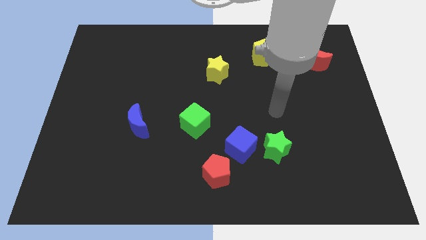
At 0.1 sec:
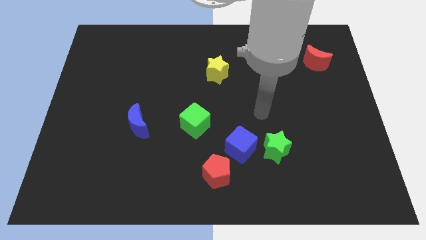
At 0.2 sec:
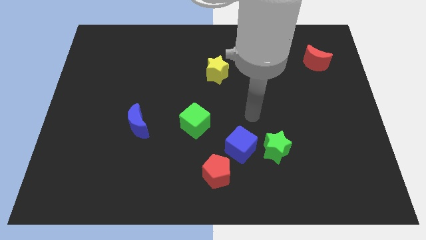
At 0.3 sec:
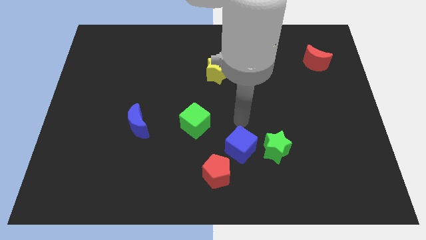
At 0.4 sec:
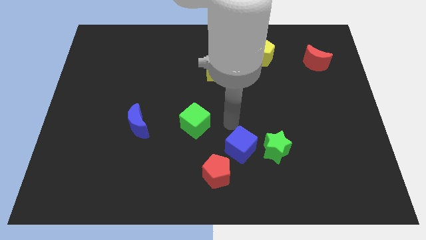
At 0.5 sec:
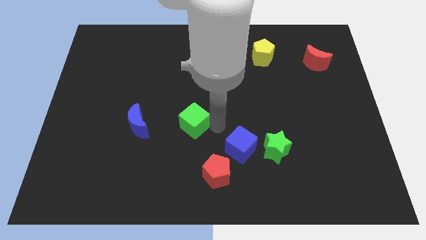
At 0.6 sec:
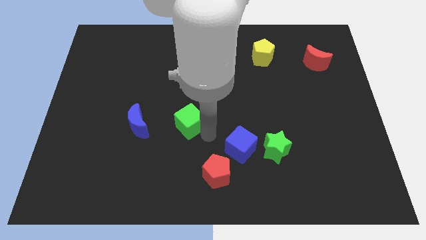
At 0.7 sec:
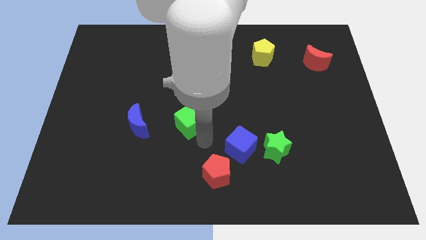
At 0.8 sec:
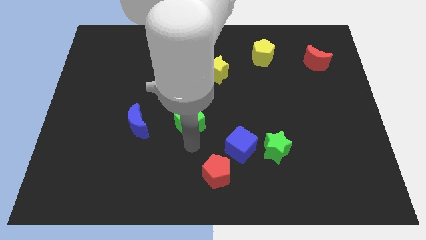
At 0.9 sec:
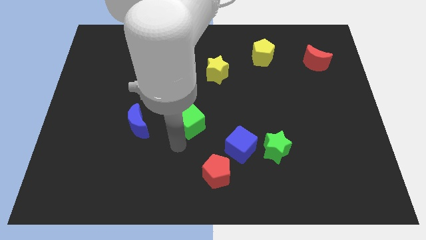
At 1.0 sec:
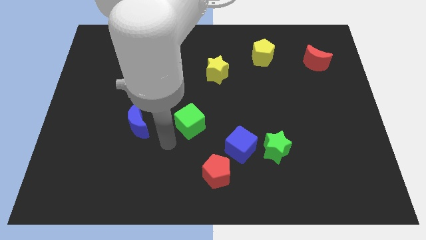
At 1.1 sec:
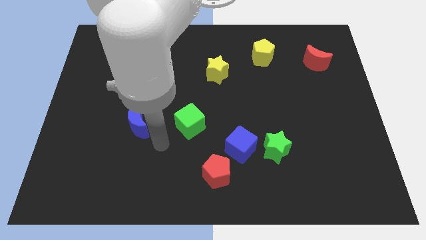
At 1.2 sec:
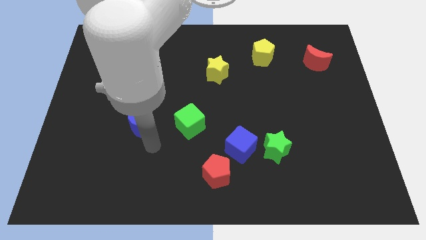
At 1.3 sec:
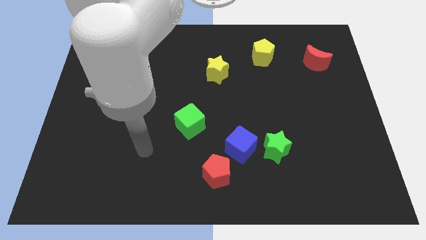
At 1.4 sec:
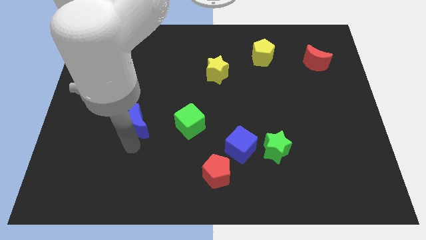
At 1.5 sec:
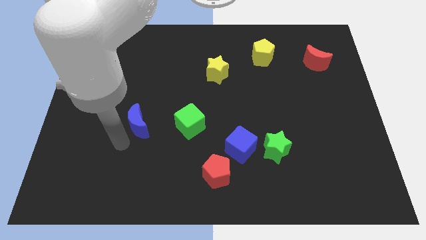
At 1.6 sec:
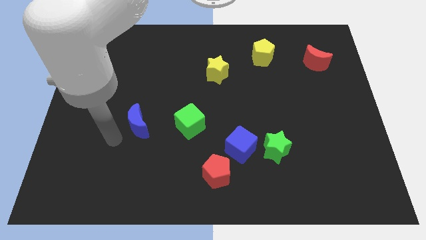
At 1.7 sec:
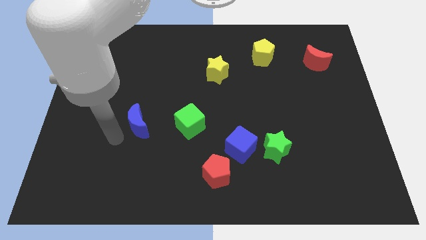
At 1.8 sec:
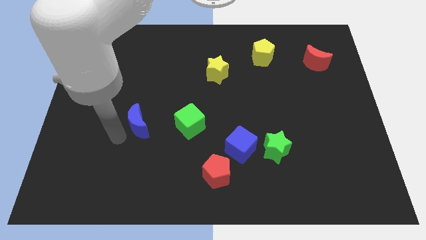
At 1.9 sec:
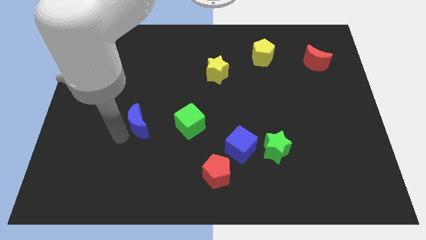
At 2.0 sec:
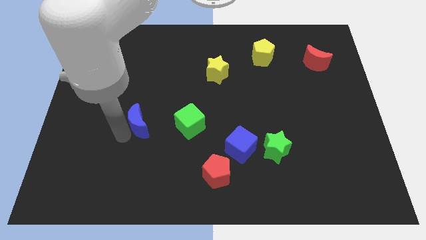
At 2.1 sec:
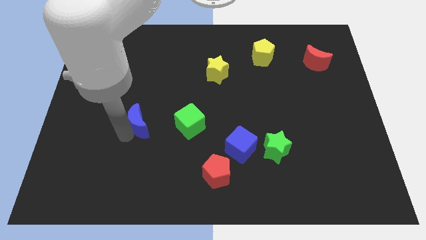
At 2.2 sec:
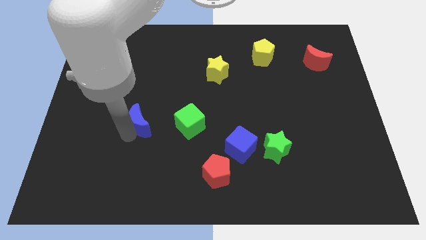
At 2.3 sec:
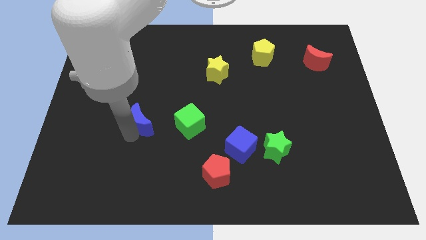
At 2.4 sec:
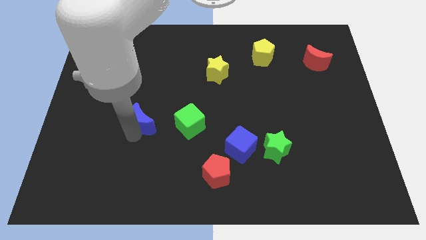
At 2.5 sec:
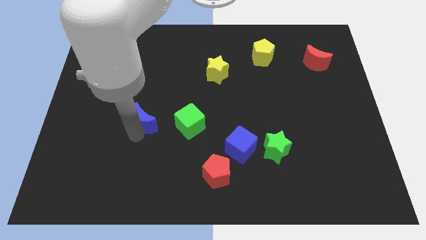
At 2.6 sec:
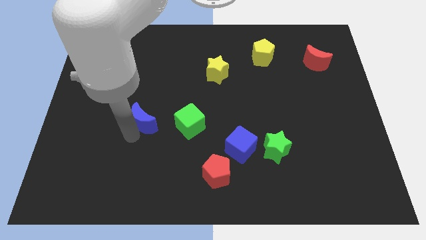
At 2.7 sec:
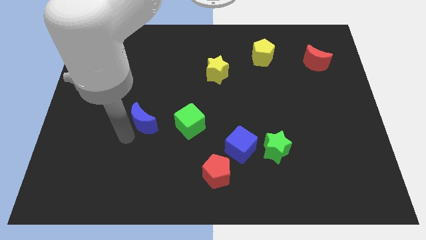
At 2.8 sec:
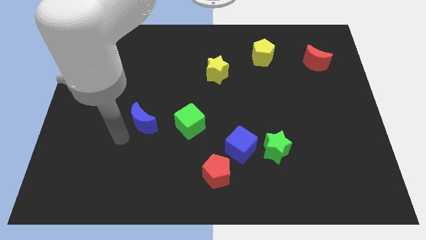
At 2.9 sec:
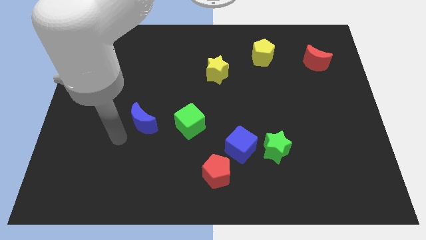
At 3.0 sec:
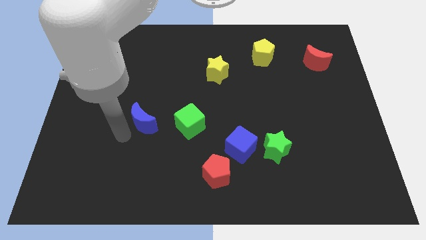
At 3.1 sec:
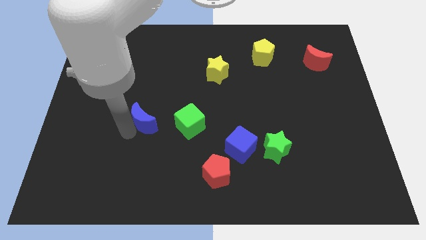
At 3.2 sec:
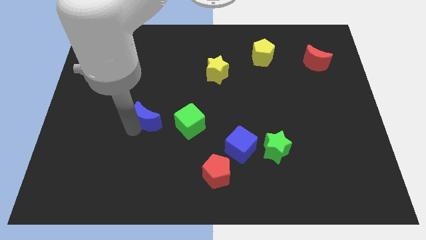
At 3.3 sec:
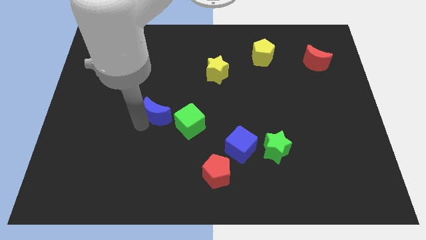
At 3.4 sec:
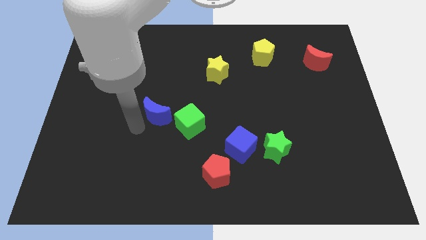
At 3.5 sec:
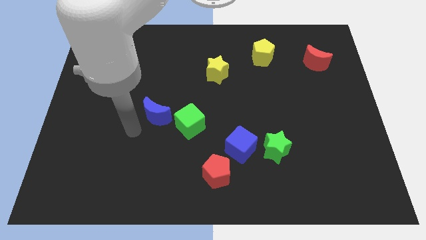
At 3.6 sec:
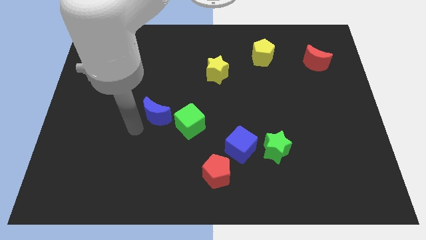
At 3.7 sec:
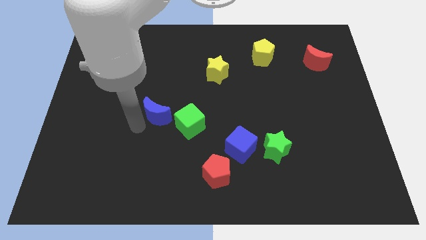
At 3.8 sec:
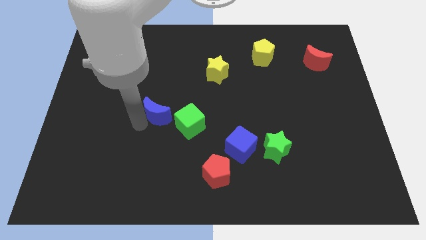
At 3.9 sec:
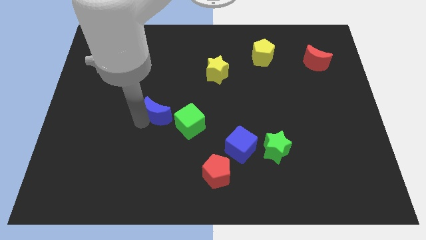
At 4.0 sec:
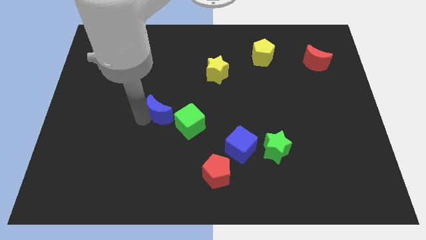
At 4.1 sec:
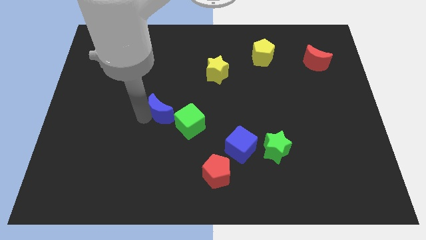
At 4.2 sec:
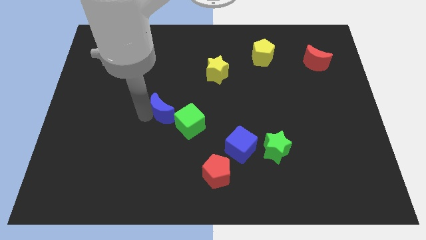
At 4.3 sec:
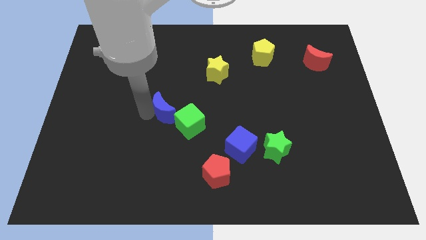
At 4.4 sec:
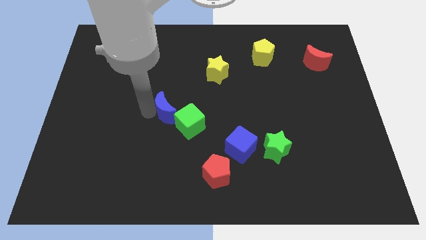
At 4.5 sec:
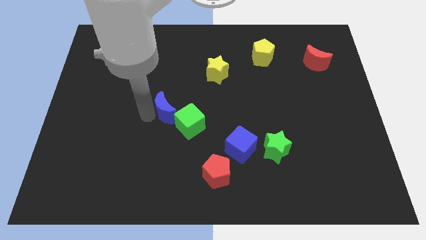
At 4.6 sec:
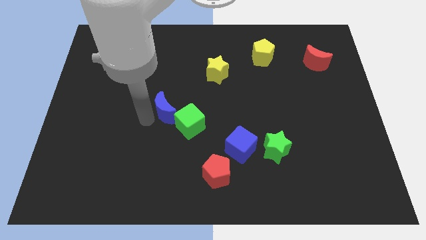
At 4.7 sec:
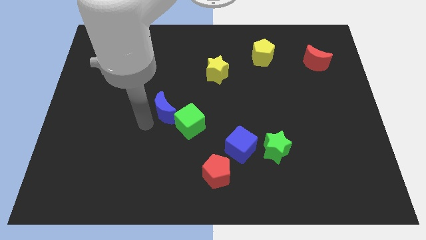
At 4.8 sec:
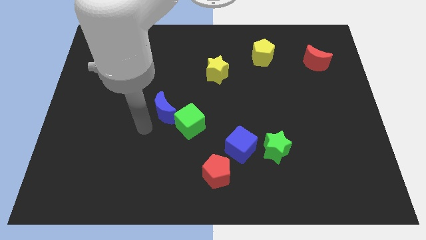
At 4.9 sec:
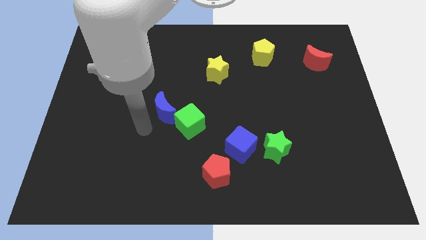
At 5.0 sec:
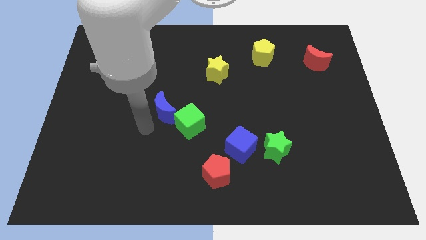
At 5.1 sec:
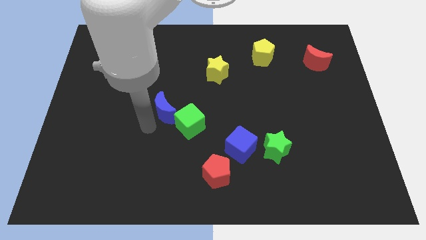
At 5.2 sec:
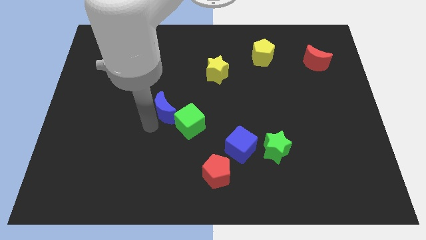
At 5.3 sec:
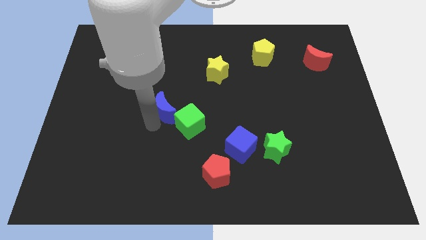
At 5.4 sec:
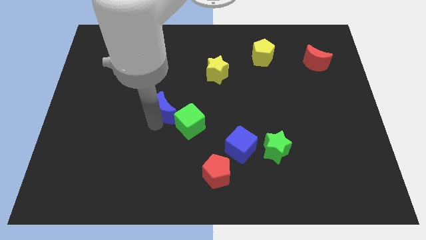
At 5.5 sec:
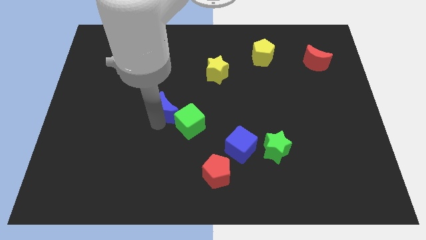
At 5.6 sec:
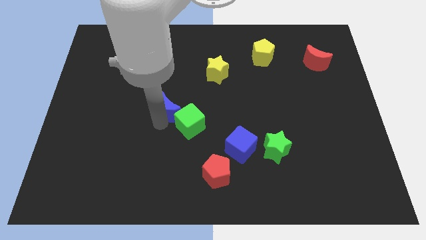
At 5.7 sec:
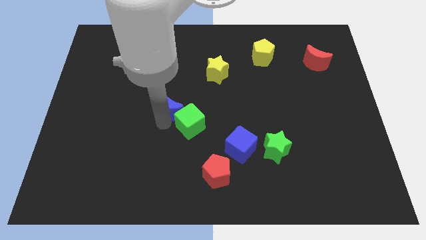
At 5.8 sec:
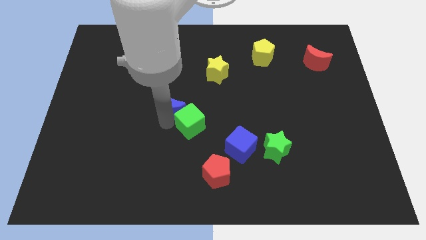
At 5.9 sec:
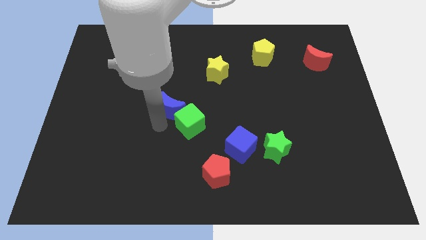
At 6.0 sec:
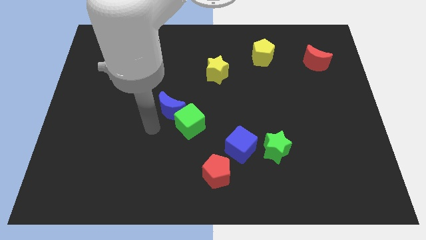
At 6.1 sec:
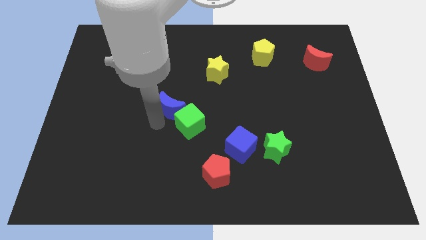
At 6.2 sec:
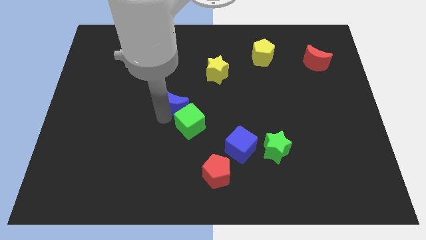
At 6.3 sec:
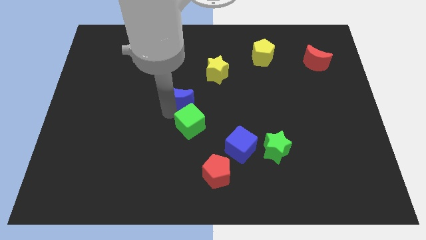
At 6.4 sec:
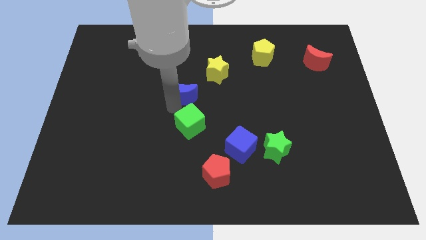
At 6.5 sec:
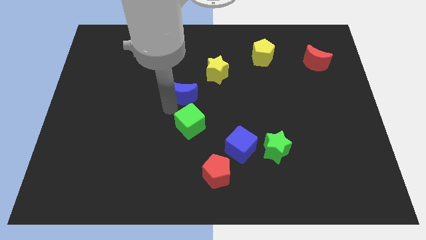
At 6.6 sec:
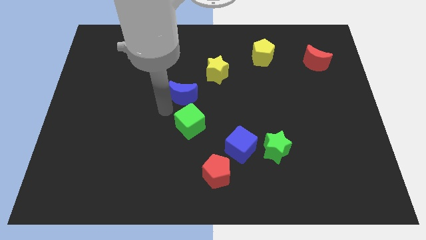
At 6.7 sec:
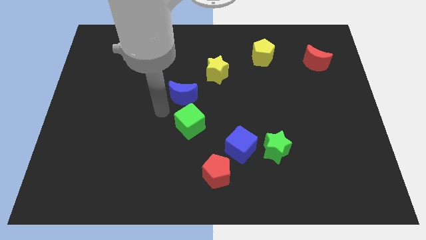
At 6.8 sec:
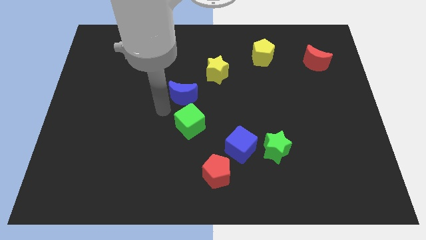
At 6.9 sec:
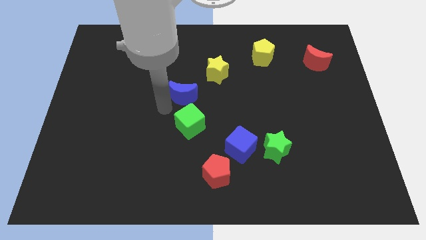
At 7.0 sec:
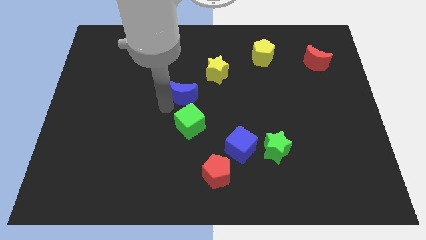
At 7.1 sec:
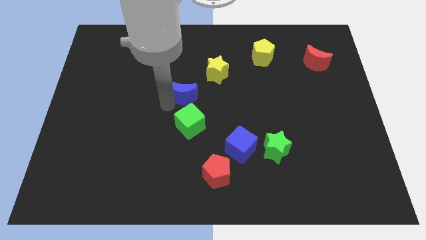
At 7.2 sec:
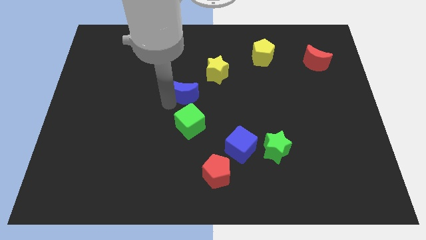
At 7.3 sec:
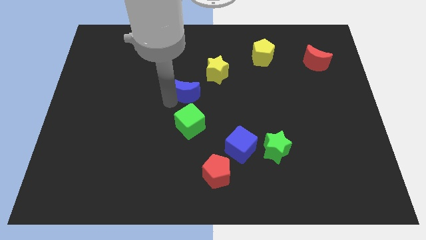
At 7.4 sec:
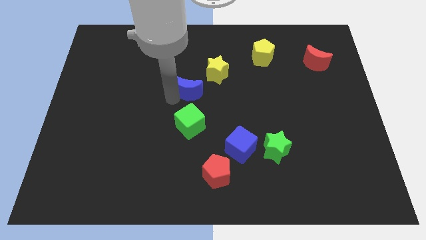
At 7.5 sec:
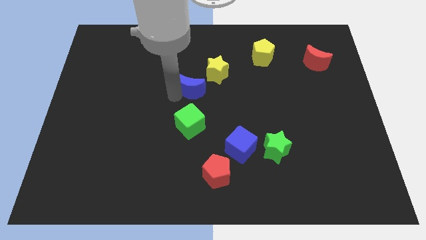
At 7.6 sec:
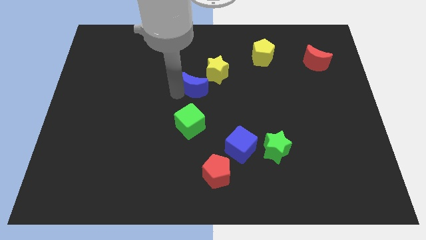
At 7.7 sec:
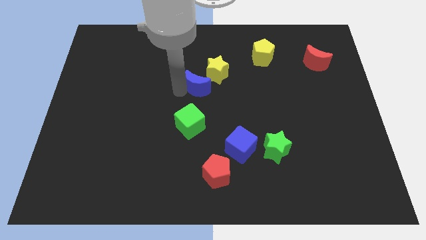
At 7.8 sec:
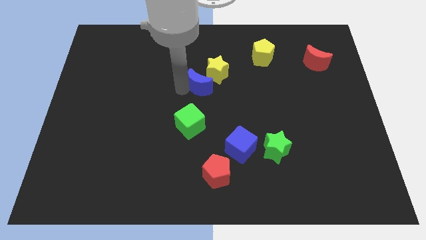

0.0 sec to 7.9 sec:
put the blue moon next to the yellow star
